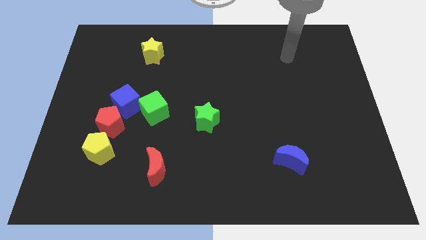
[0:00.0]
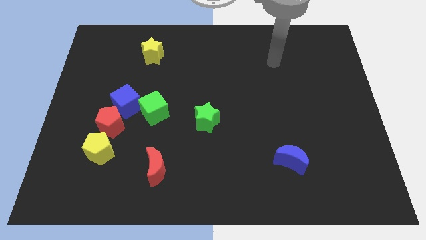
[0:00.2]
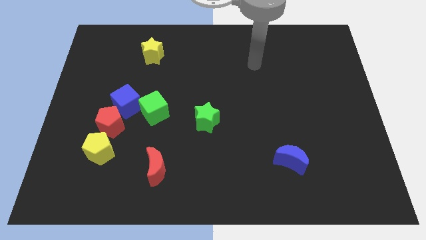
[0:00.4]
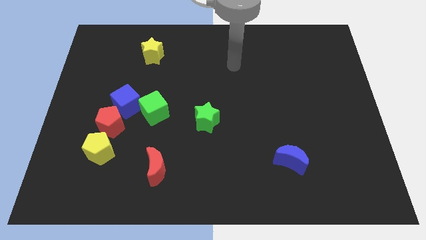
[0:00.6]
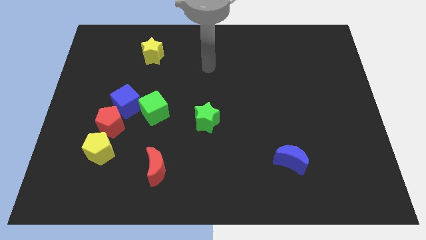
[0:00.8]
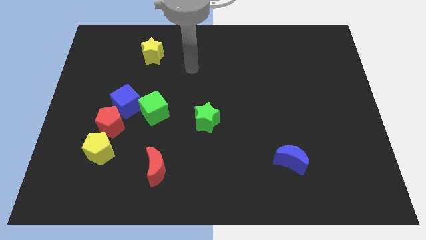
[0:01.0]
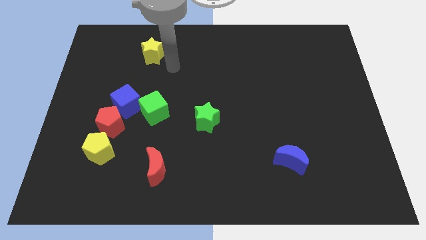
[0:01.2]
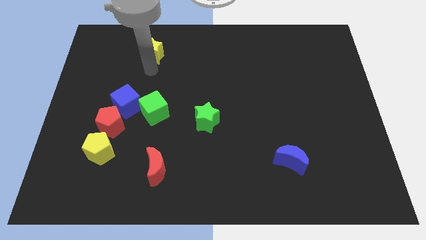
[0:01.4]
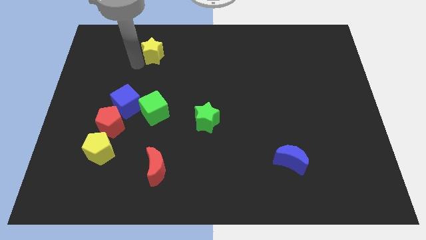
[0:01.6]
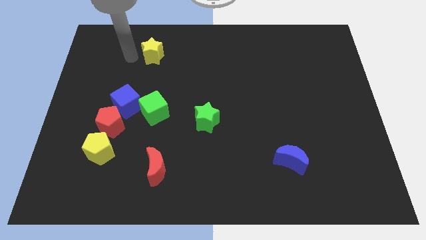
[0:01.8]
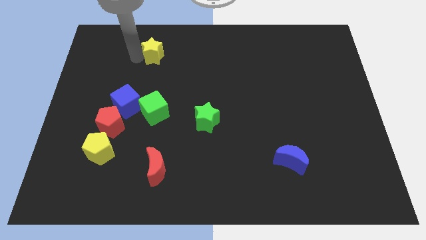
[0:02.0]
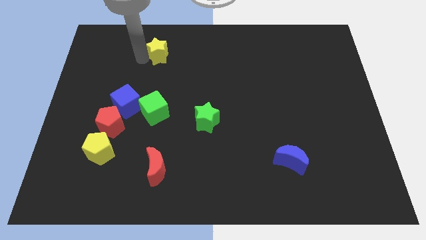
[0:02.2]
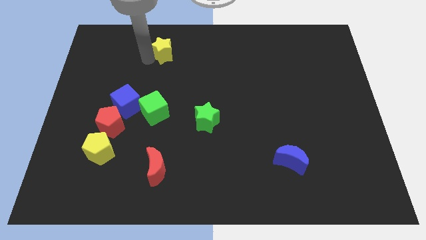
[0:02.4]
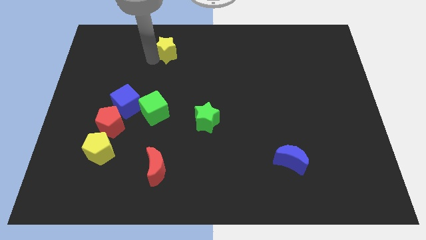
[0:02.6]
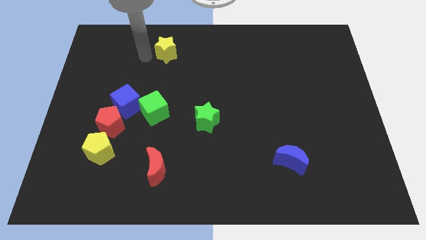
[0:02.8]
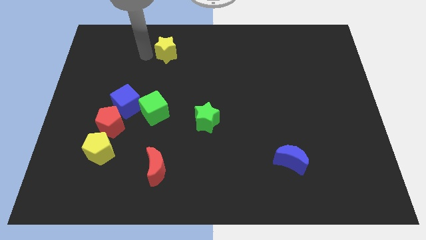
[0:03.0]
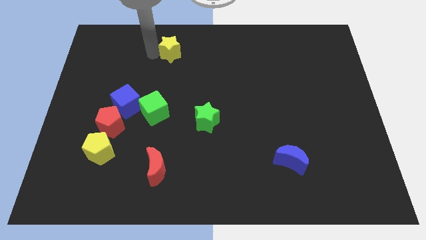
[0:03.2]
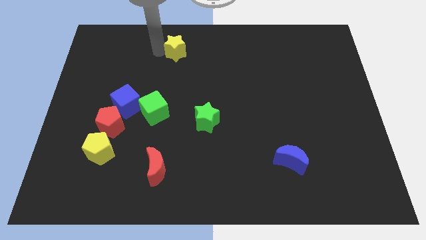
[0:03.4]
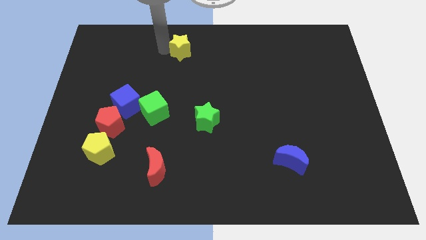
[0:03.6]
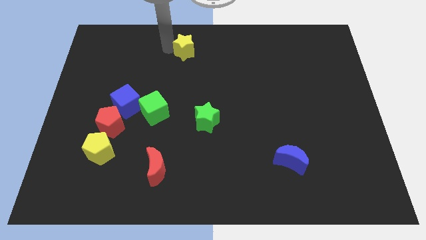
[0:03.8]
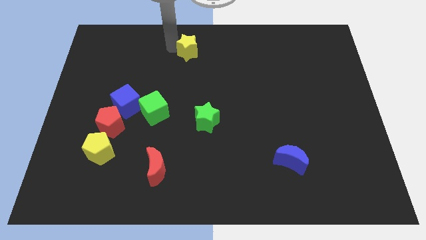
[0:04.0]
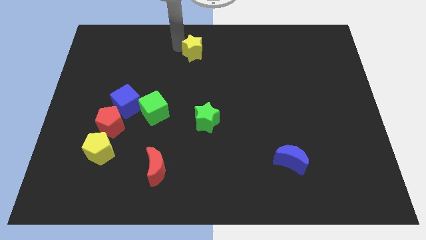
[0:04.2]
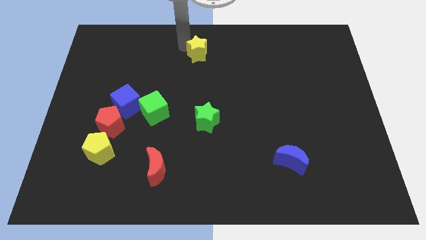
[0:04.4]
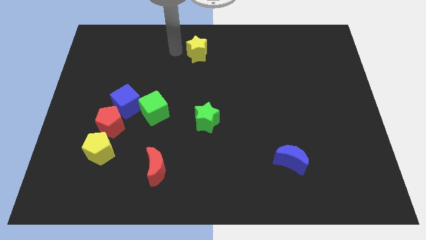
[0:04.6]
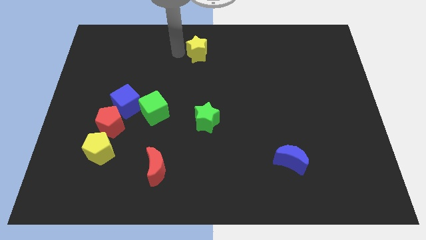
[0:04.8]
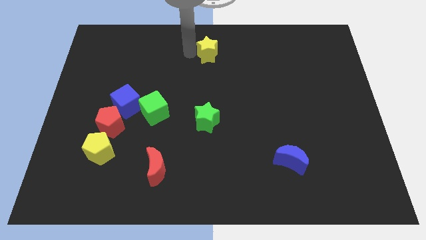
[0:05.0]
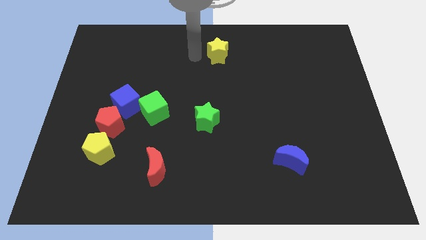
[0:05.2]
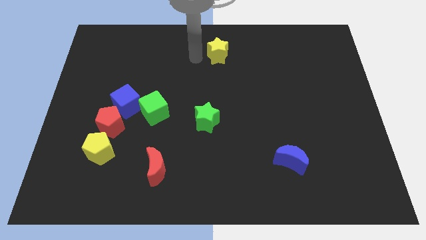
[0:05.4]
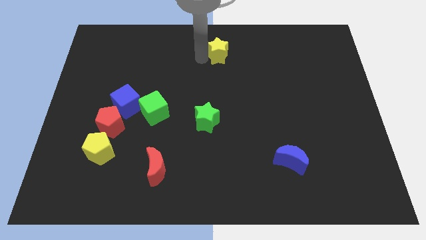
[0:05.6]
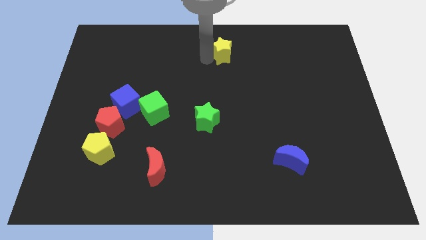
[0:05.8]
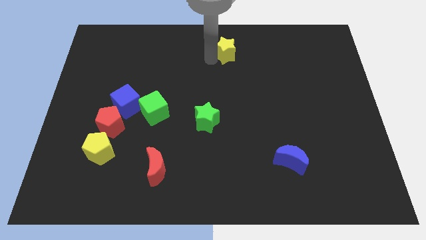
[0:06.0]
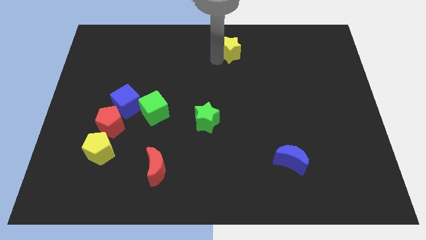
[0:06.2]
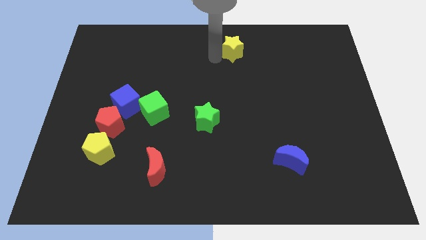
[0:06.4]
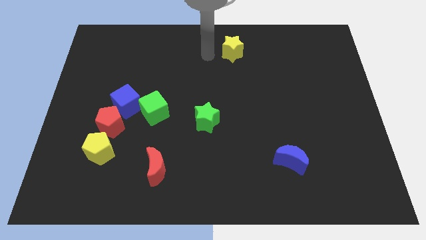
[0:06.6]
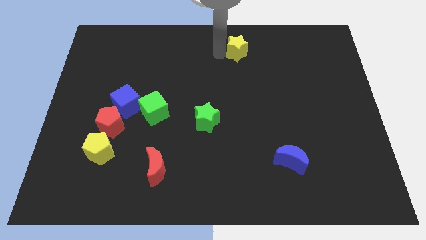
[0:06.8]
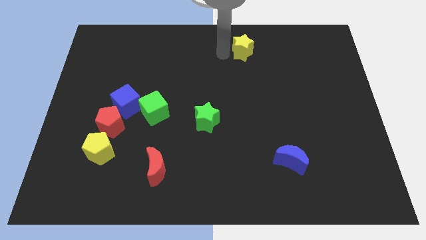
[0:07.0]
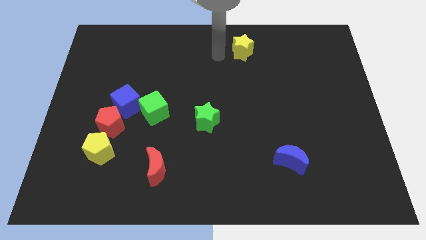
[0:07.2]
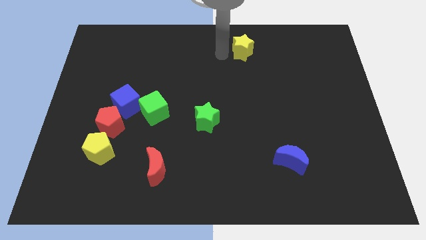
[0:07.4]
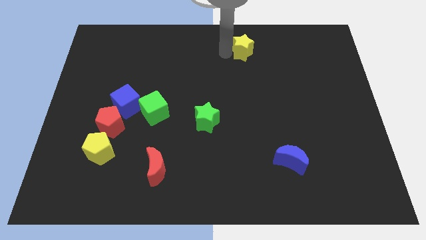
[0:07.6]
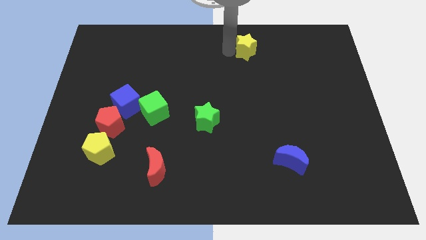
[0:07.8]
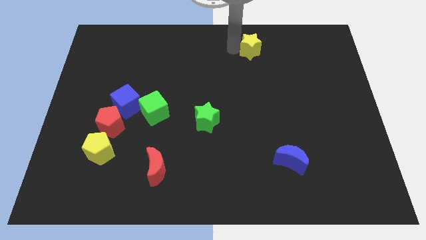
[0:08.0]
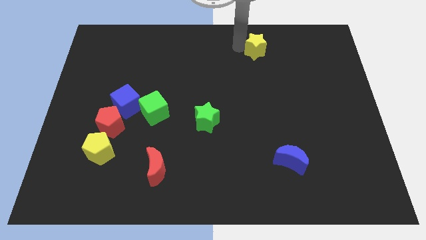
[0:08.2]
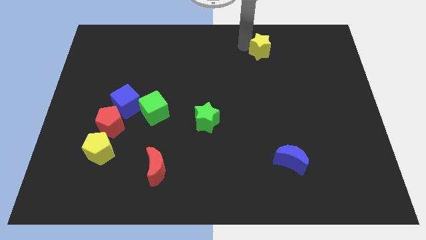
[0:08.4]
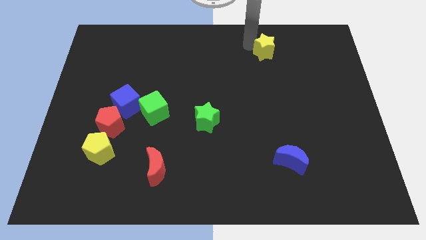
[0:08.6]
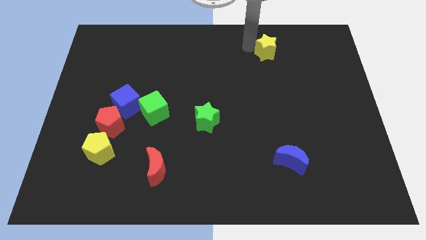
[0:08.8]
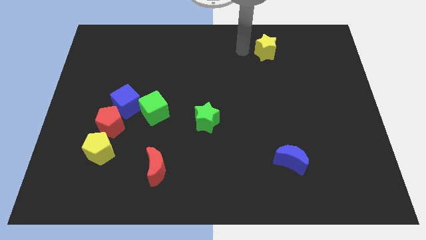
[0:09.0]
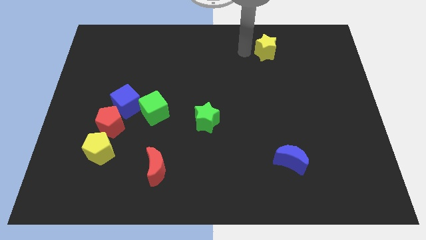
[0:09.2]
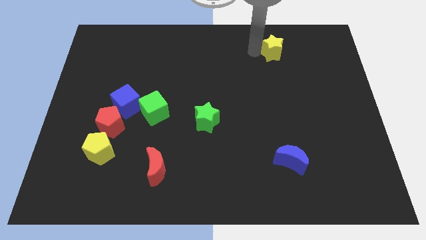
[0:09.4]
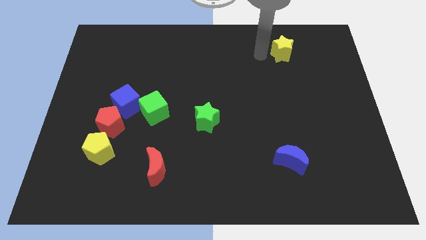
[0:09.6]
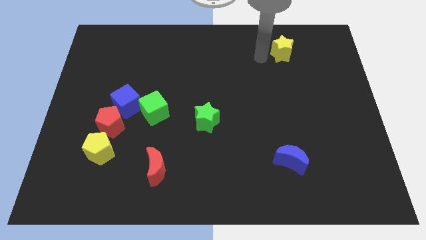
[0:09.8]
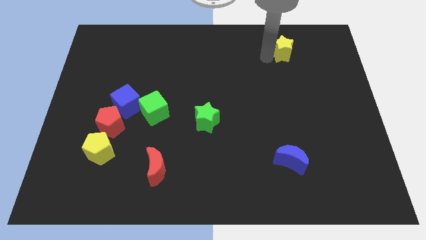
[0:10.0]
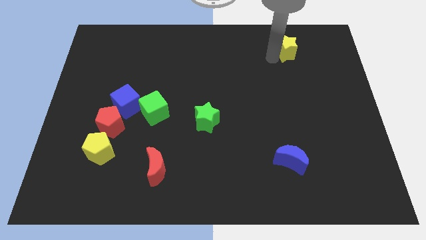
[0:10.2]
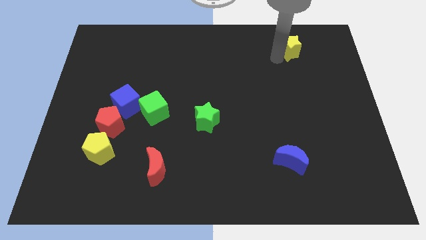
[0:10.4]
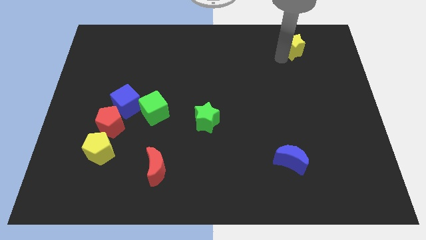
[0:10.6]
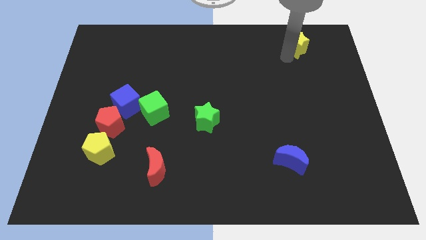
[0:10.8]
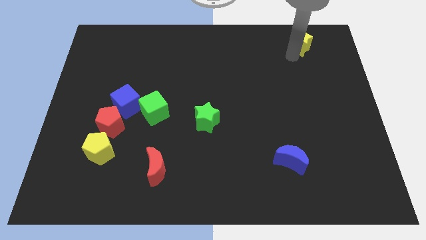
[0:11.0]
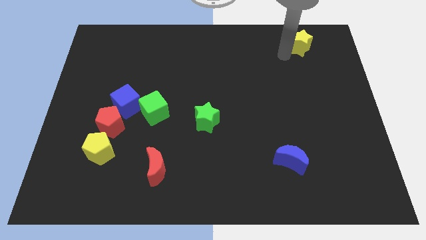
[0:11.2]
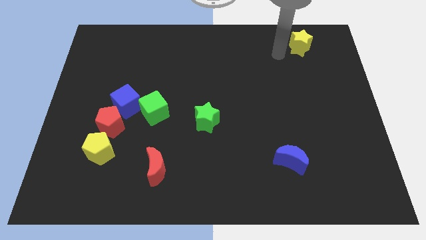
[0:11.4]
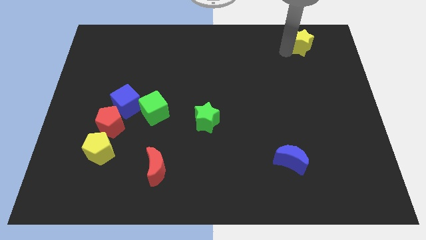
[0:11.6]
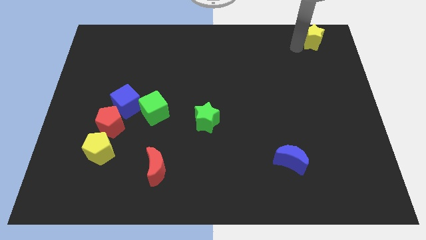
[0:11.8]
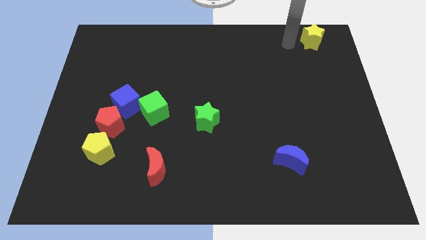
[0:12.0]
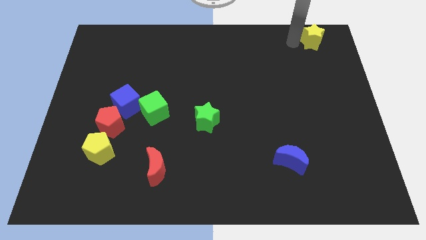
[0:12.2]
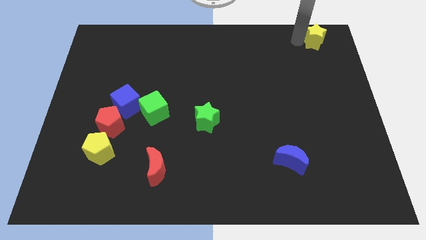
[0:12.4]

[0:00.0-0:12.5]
slide the yellow star to the top right

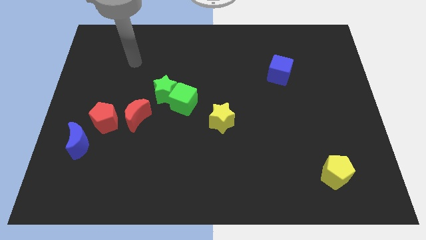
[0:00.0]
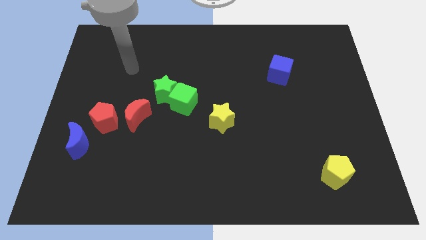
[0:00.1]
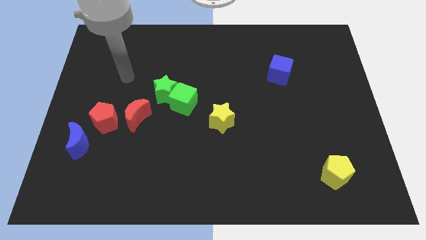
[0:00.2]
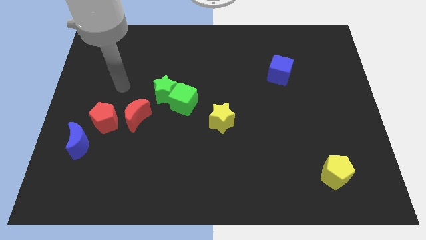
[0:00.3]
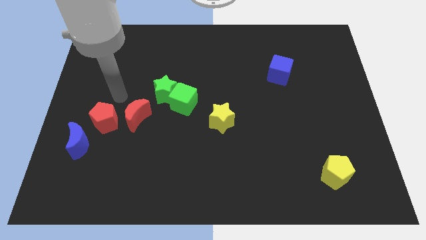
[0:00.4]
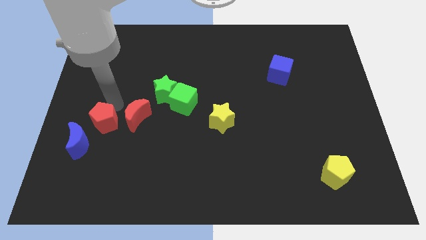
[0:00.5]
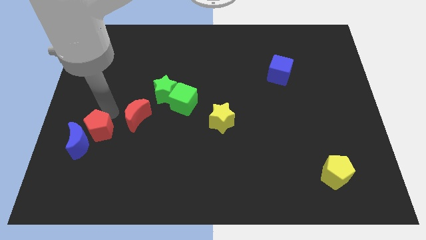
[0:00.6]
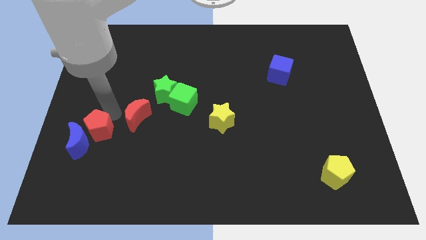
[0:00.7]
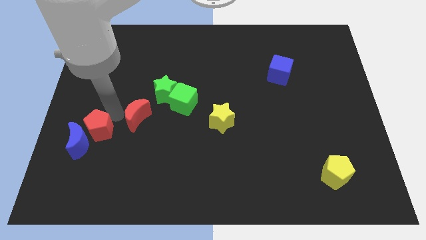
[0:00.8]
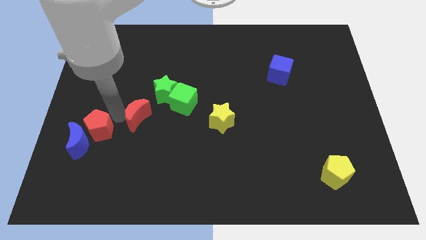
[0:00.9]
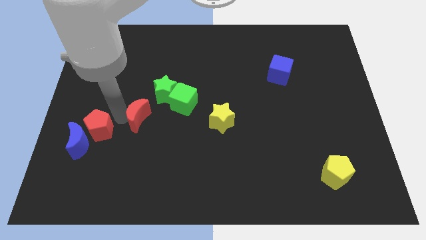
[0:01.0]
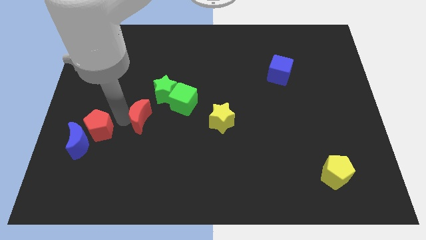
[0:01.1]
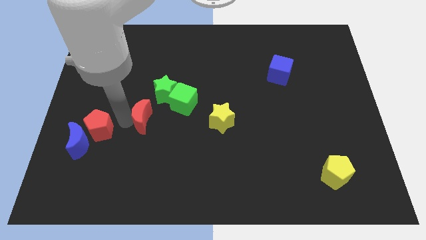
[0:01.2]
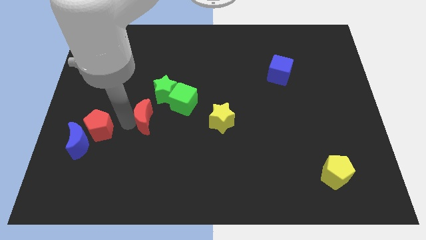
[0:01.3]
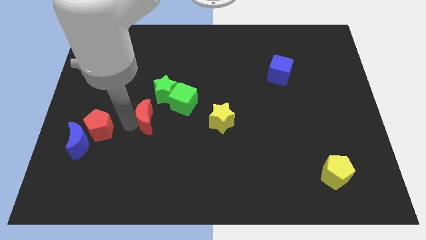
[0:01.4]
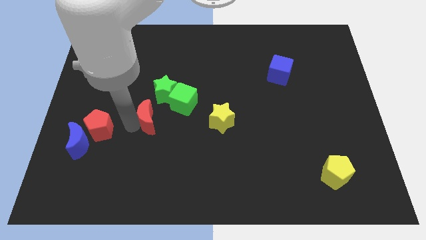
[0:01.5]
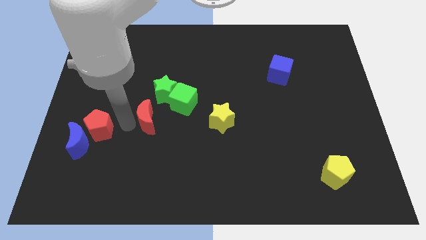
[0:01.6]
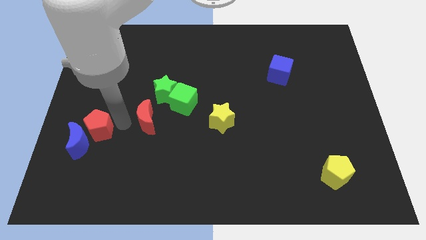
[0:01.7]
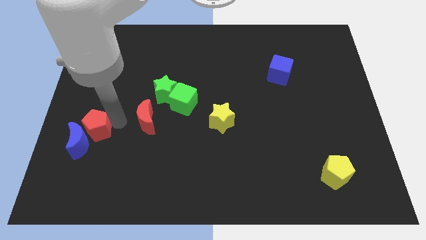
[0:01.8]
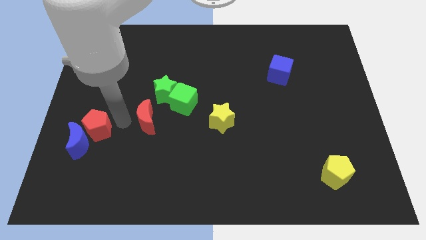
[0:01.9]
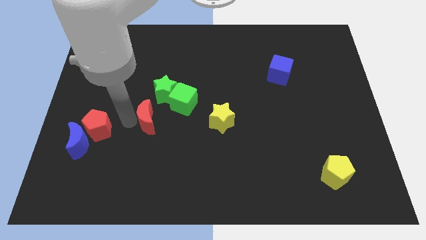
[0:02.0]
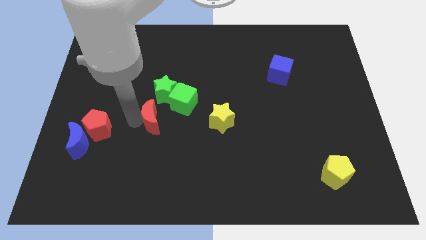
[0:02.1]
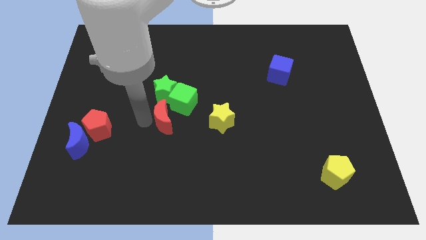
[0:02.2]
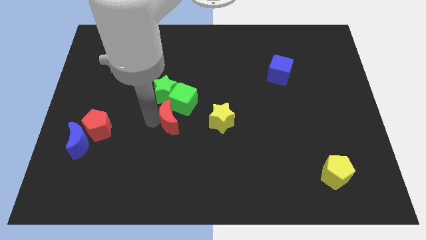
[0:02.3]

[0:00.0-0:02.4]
move the red moon to the middle of the board
